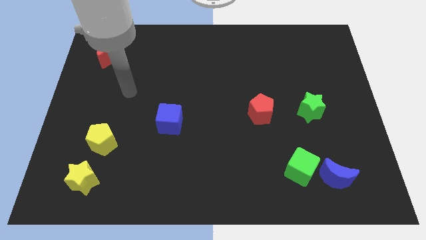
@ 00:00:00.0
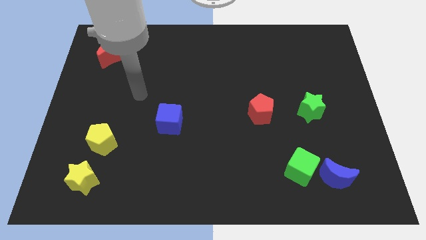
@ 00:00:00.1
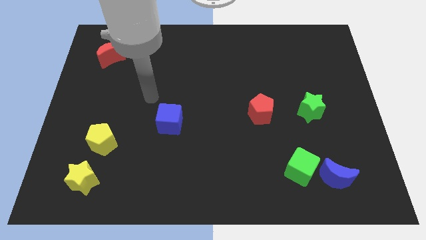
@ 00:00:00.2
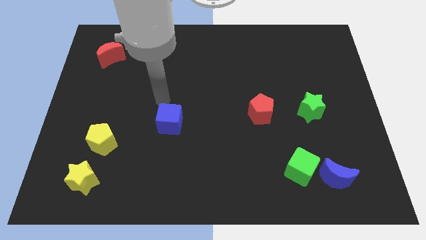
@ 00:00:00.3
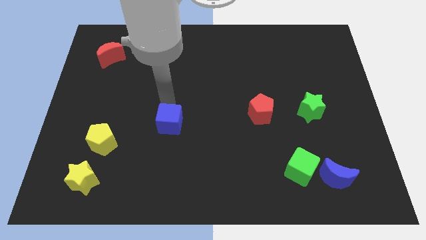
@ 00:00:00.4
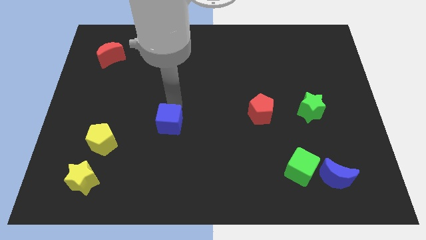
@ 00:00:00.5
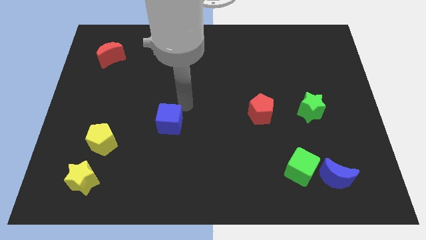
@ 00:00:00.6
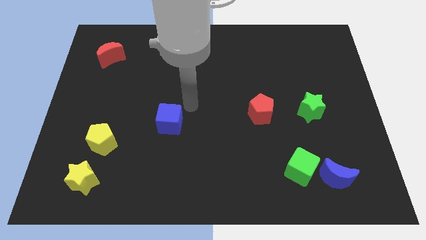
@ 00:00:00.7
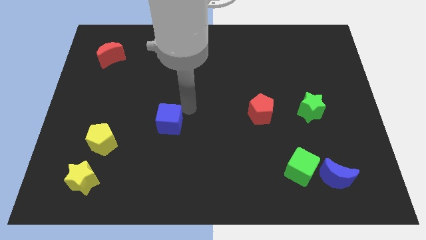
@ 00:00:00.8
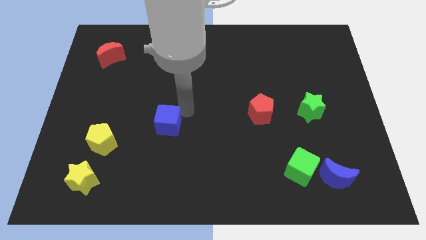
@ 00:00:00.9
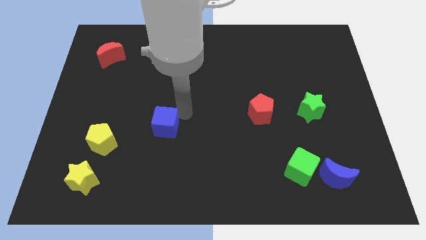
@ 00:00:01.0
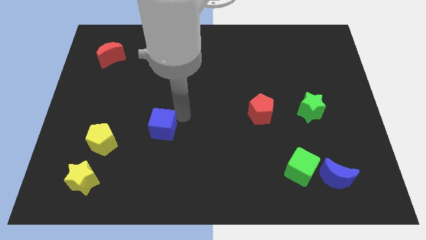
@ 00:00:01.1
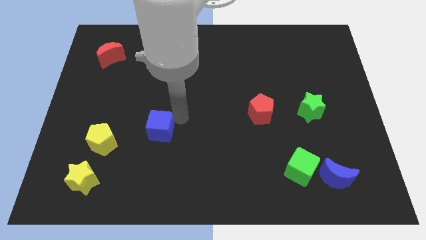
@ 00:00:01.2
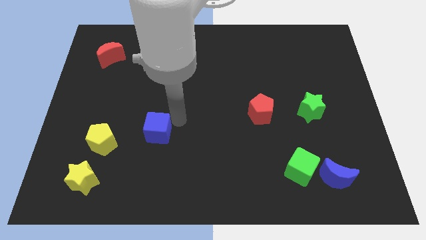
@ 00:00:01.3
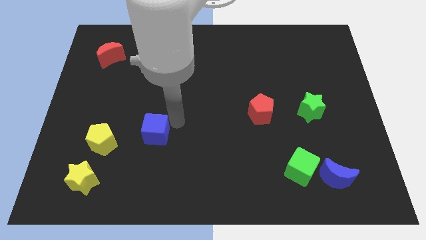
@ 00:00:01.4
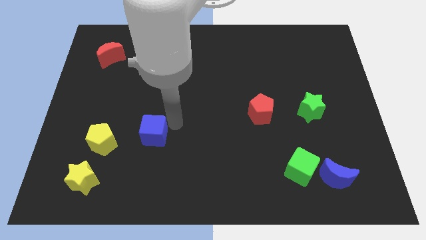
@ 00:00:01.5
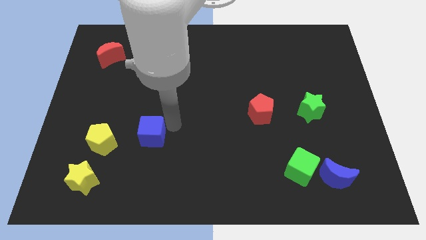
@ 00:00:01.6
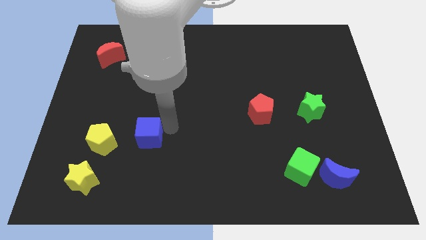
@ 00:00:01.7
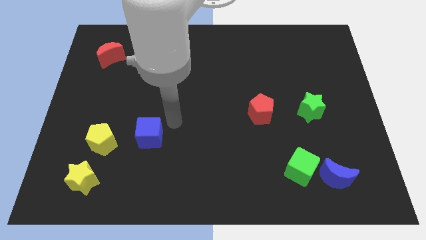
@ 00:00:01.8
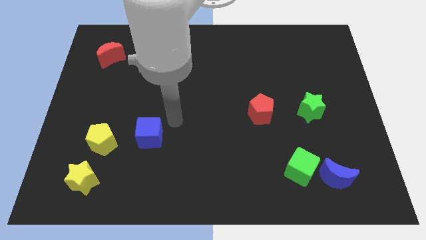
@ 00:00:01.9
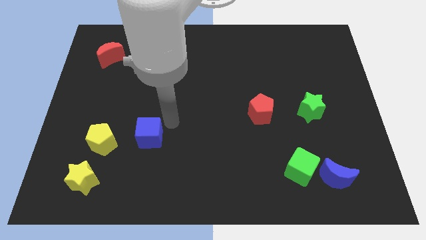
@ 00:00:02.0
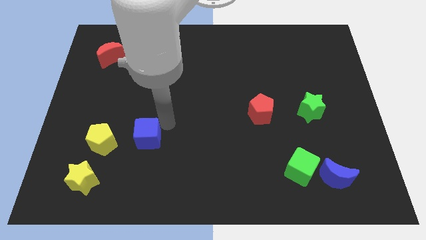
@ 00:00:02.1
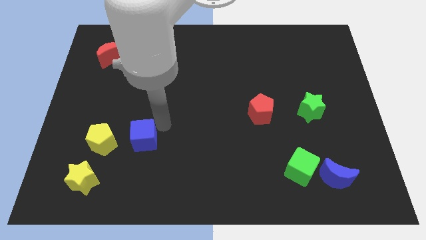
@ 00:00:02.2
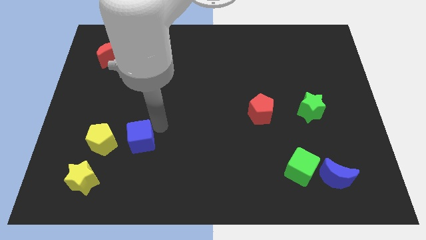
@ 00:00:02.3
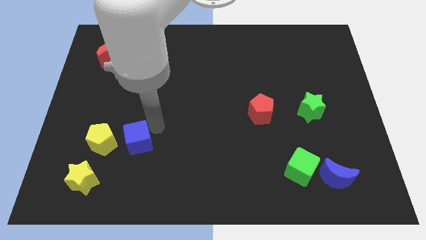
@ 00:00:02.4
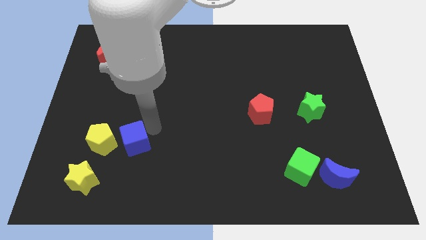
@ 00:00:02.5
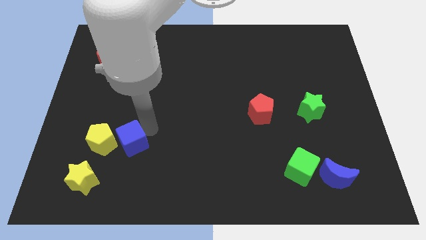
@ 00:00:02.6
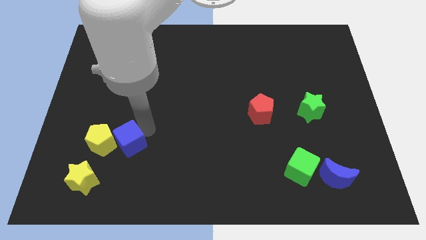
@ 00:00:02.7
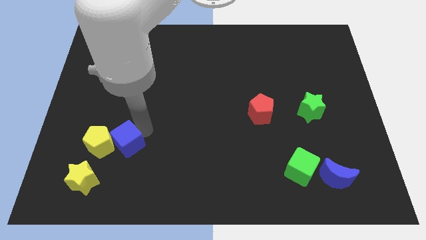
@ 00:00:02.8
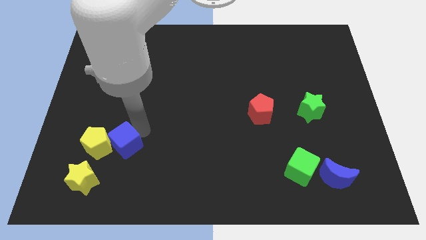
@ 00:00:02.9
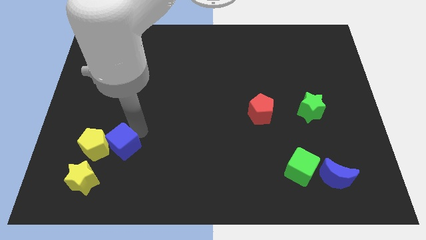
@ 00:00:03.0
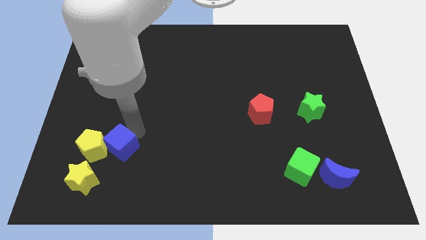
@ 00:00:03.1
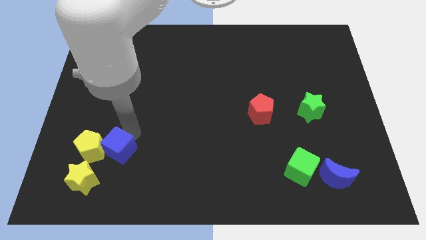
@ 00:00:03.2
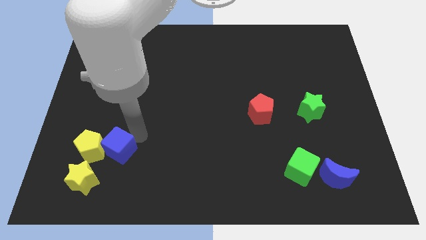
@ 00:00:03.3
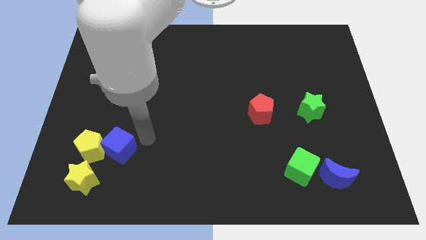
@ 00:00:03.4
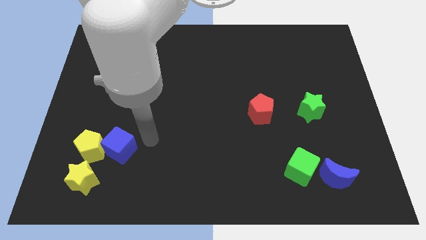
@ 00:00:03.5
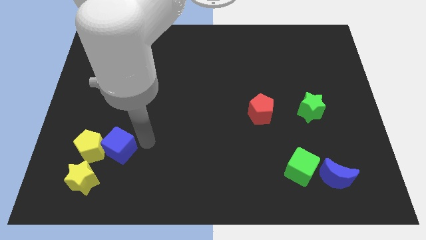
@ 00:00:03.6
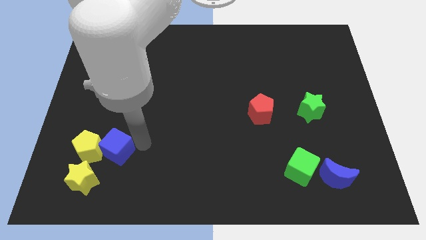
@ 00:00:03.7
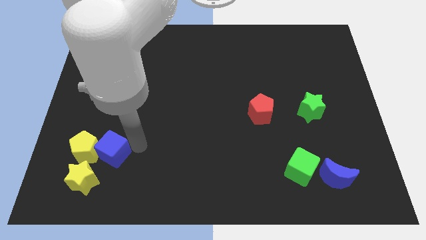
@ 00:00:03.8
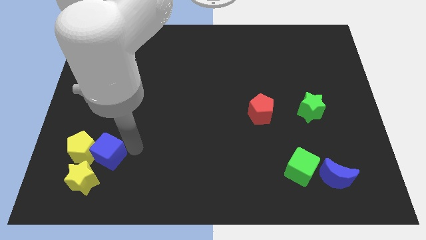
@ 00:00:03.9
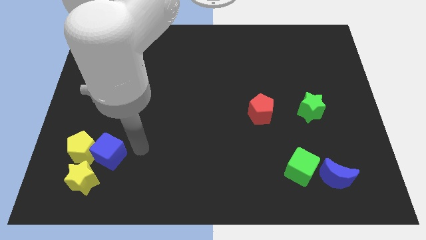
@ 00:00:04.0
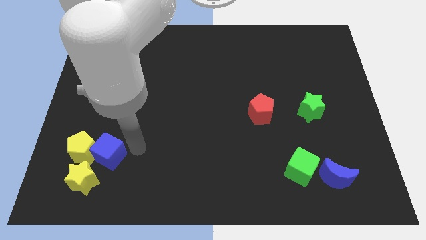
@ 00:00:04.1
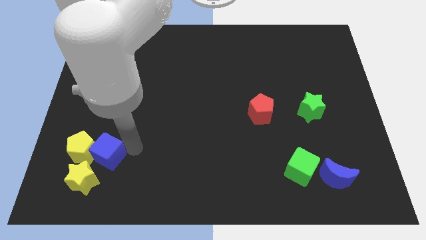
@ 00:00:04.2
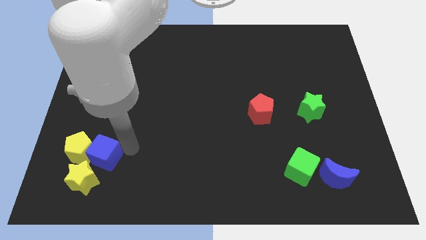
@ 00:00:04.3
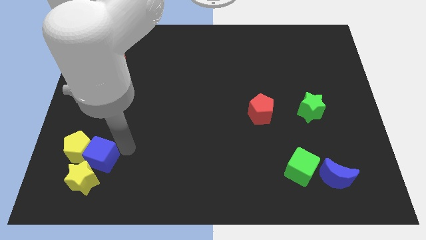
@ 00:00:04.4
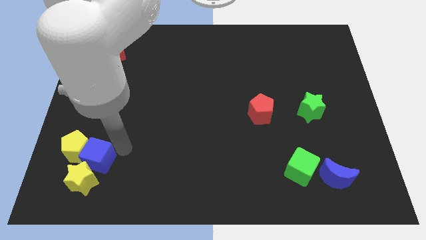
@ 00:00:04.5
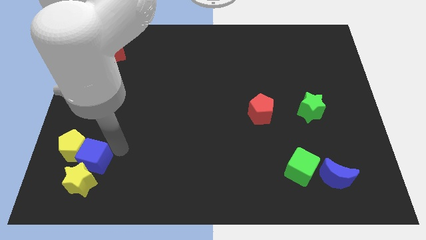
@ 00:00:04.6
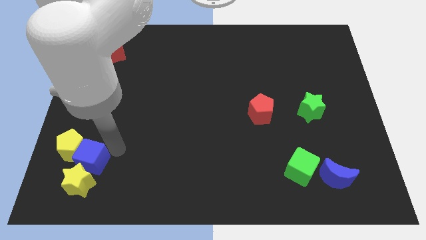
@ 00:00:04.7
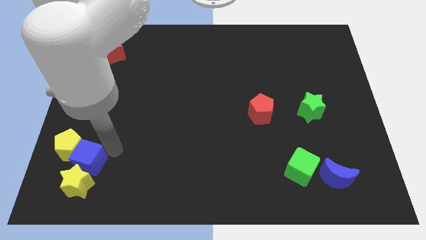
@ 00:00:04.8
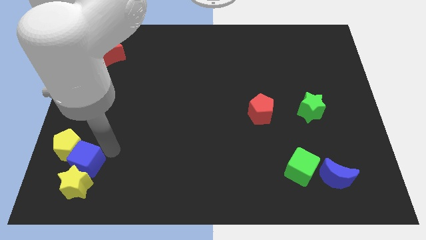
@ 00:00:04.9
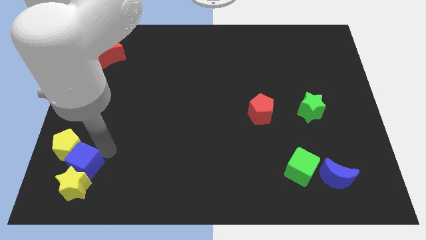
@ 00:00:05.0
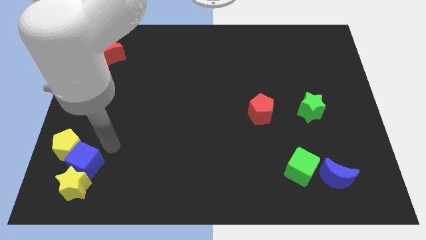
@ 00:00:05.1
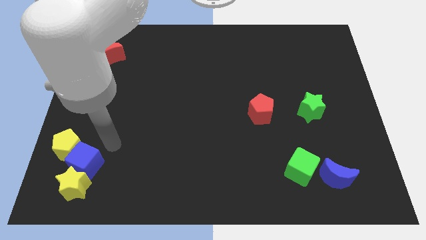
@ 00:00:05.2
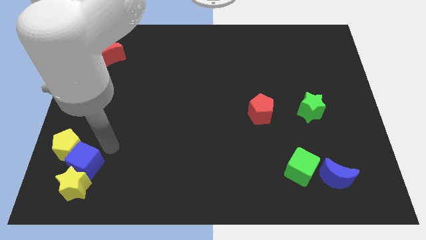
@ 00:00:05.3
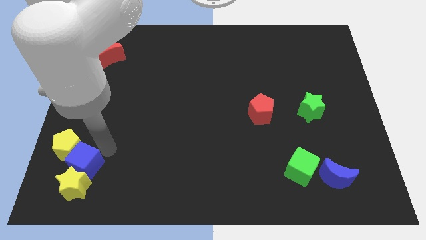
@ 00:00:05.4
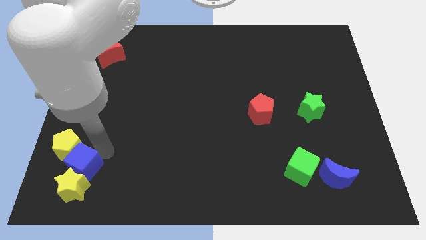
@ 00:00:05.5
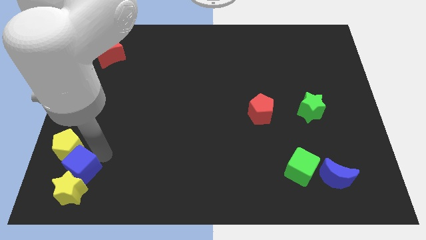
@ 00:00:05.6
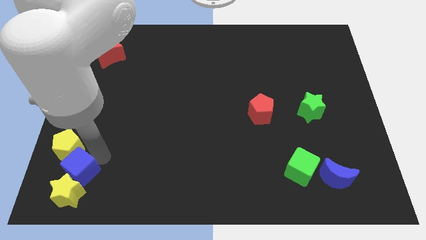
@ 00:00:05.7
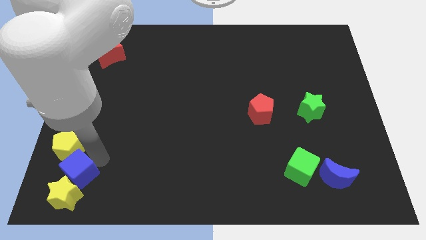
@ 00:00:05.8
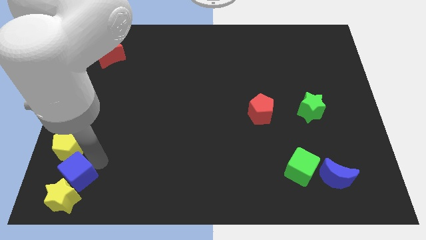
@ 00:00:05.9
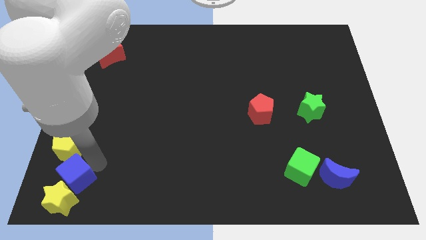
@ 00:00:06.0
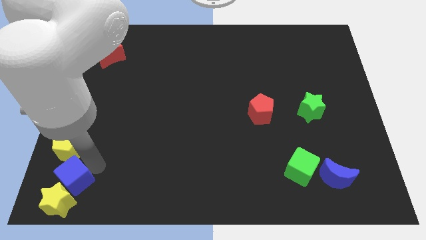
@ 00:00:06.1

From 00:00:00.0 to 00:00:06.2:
put the blue cube to the bottom left of the board
